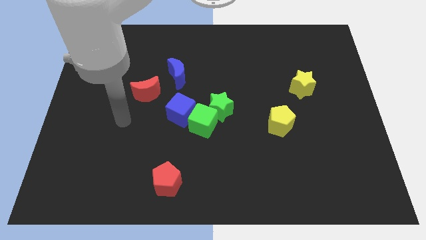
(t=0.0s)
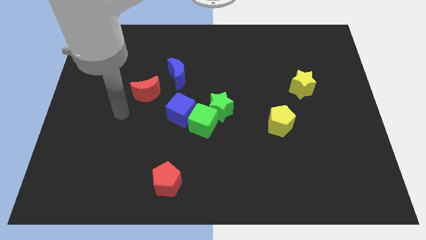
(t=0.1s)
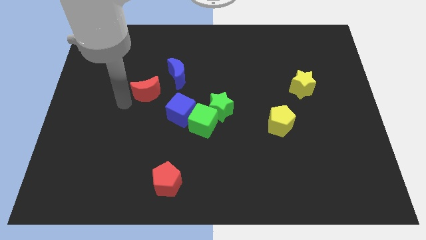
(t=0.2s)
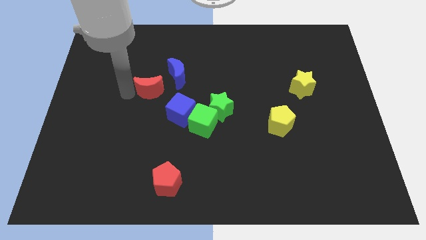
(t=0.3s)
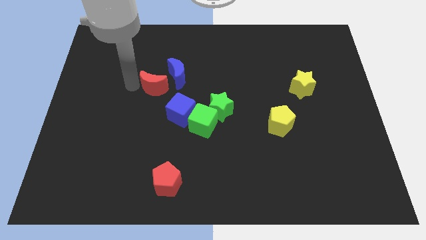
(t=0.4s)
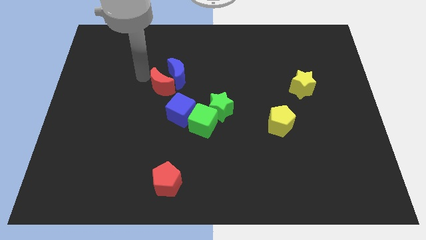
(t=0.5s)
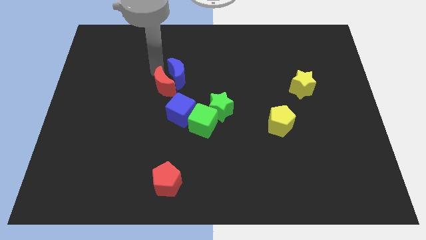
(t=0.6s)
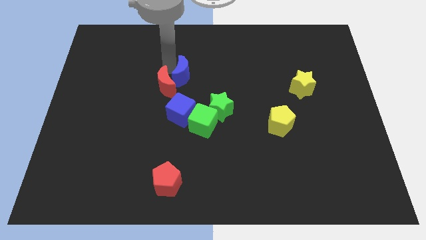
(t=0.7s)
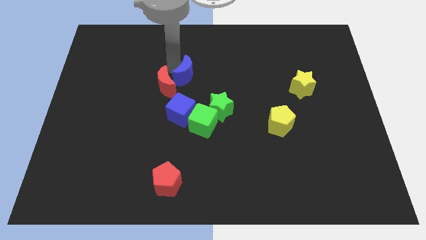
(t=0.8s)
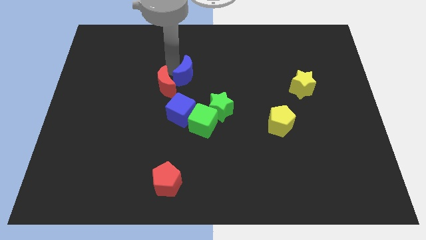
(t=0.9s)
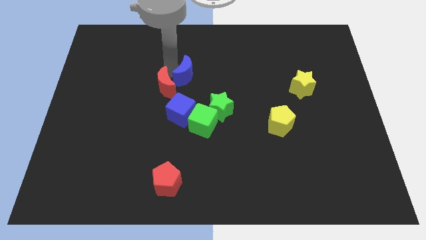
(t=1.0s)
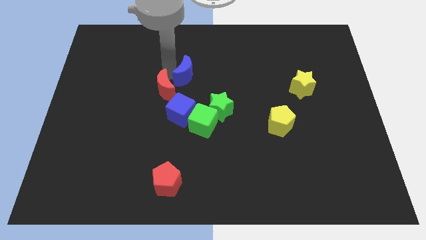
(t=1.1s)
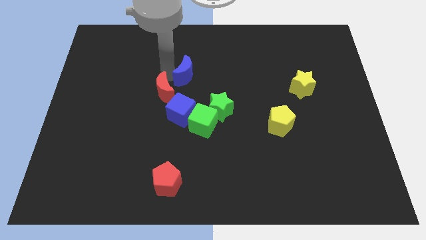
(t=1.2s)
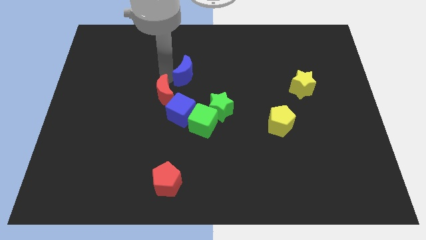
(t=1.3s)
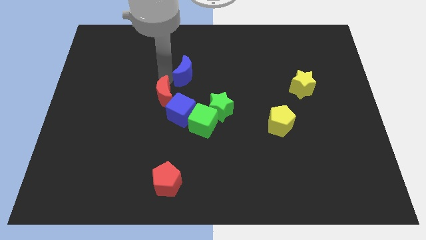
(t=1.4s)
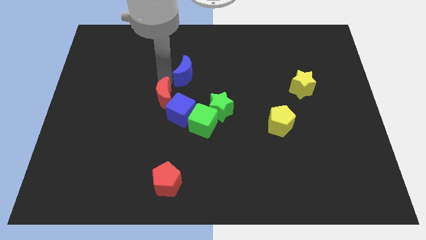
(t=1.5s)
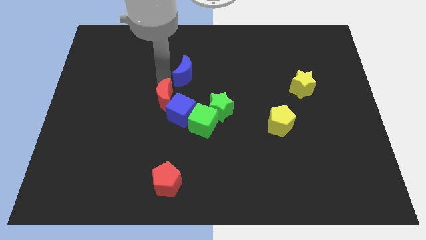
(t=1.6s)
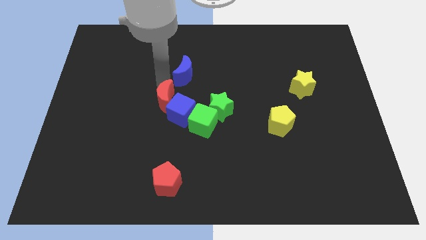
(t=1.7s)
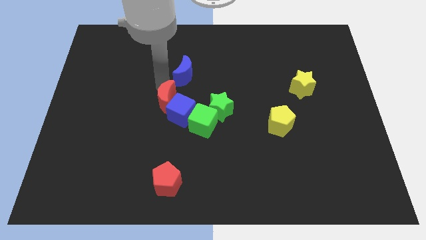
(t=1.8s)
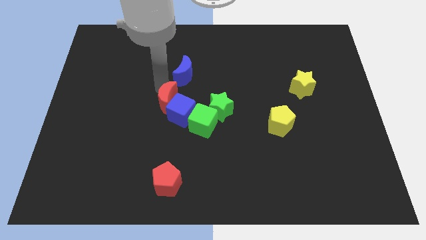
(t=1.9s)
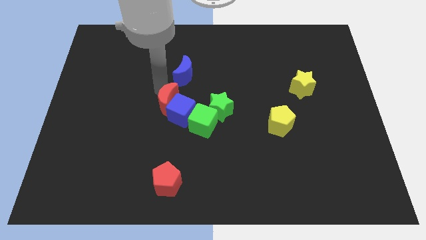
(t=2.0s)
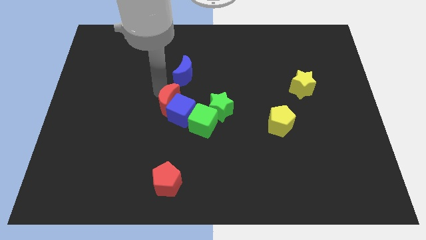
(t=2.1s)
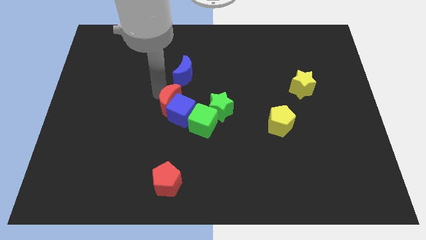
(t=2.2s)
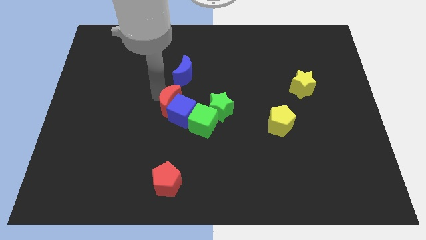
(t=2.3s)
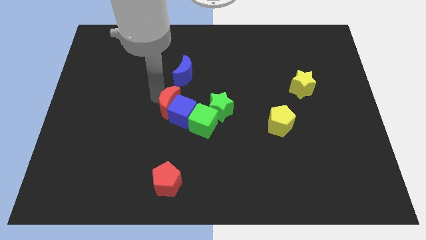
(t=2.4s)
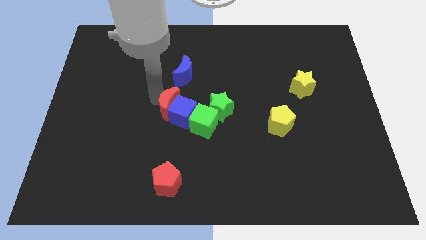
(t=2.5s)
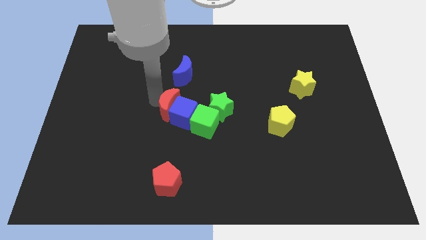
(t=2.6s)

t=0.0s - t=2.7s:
slightly move the red moon downwards and then to the right

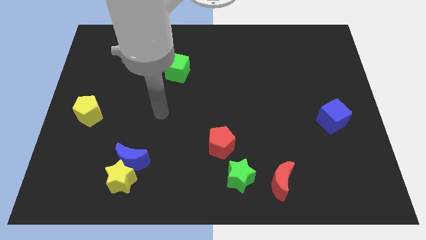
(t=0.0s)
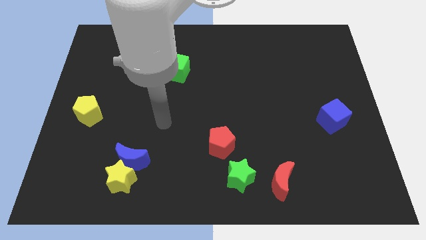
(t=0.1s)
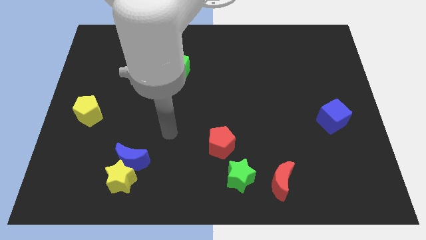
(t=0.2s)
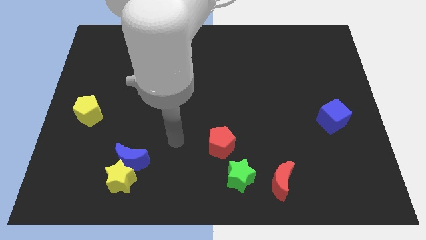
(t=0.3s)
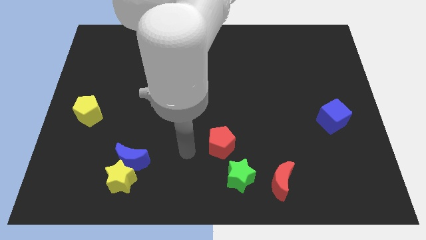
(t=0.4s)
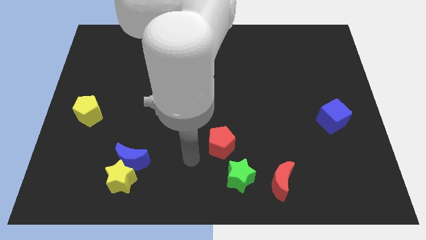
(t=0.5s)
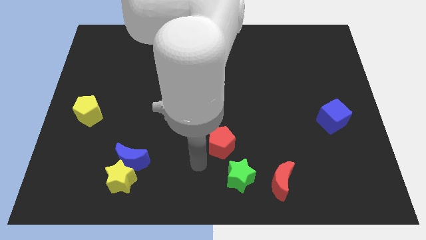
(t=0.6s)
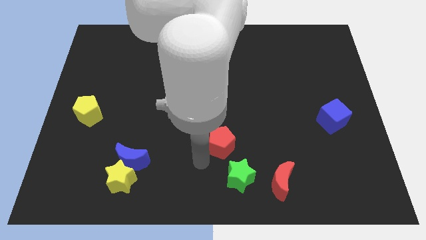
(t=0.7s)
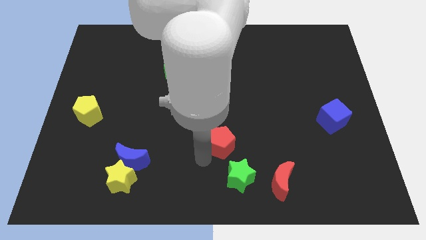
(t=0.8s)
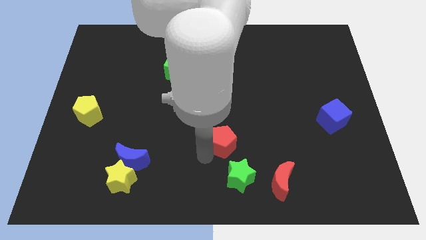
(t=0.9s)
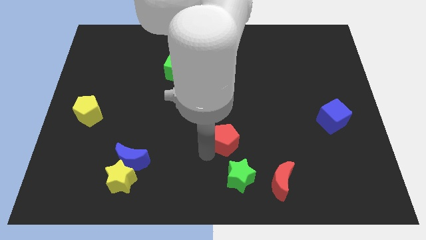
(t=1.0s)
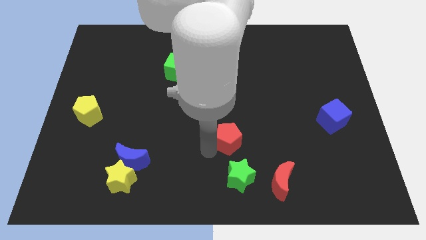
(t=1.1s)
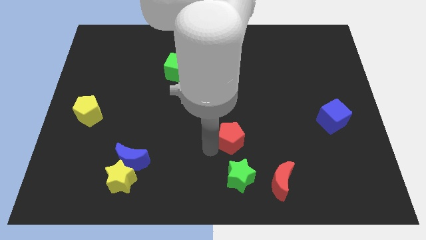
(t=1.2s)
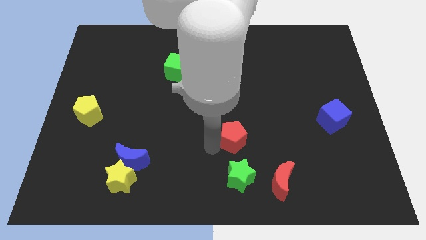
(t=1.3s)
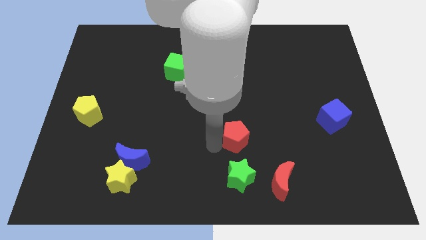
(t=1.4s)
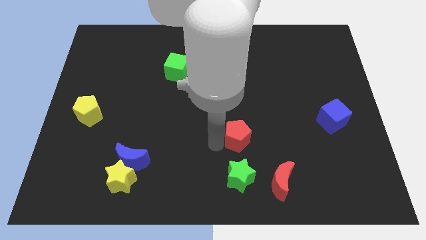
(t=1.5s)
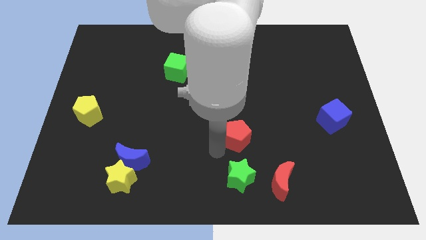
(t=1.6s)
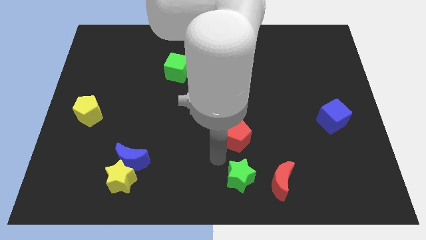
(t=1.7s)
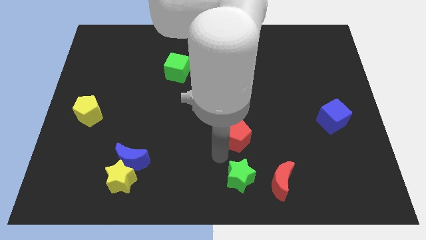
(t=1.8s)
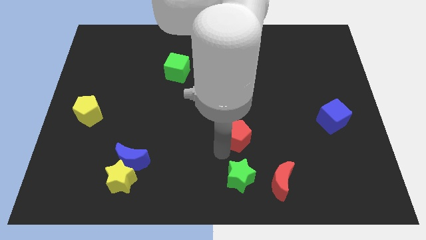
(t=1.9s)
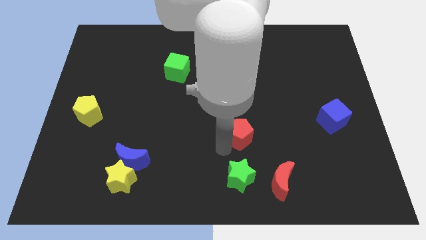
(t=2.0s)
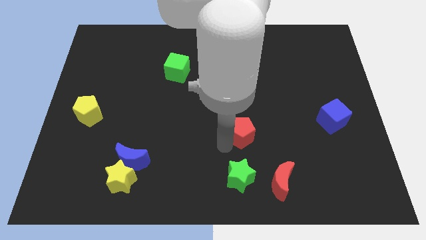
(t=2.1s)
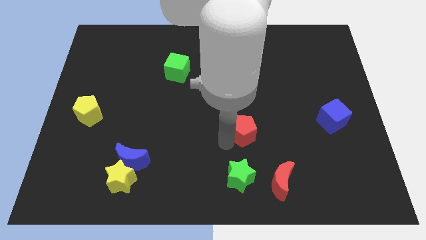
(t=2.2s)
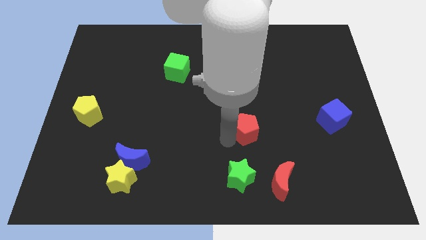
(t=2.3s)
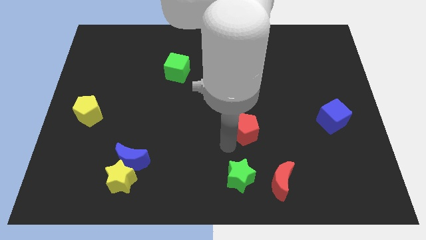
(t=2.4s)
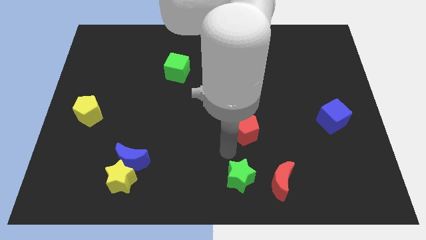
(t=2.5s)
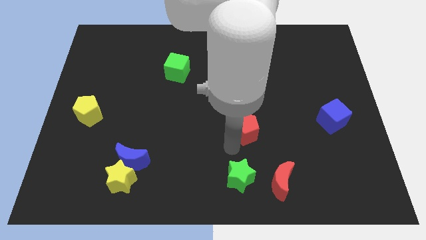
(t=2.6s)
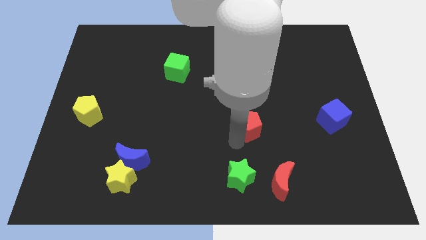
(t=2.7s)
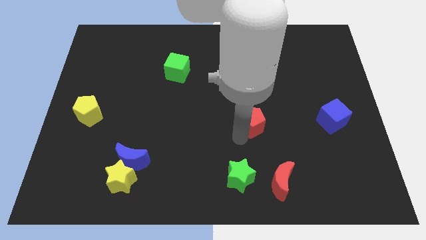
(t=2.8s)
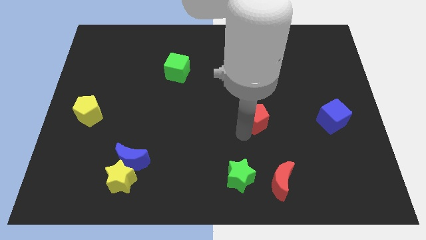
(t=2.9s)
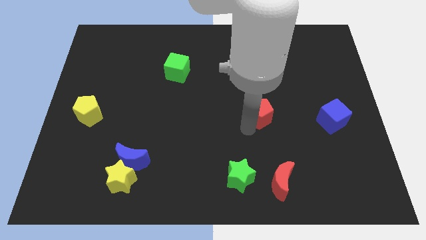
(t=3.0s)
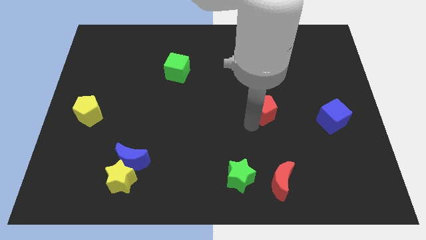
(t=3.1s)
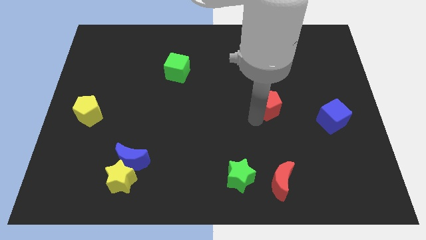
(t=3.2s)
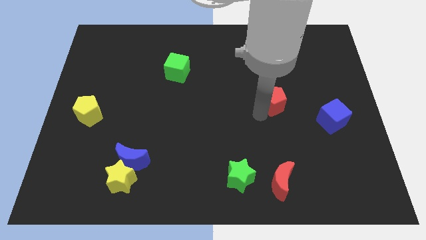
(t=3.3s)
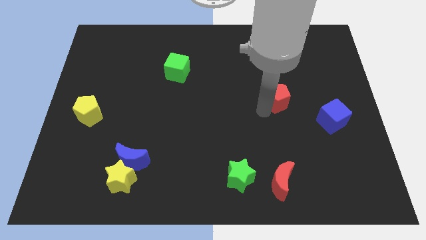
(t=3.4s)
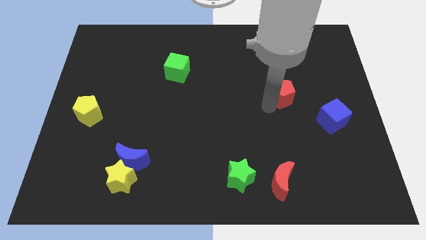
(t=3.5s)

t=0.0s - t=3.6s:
slide the red pentagon diagonally upwards and right

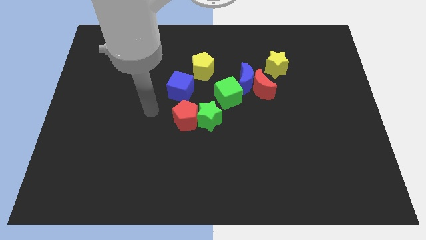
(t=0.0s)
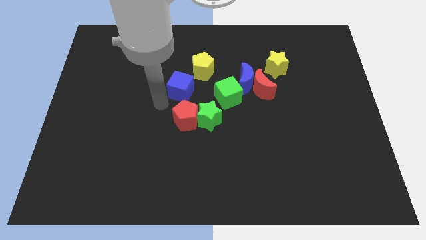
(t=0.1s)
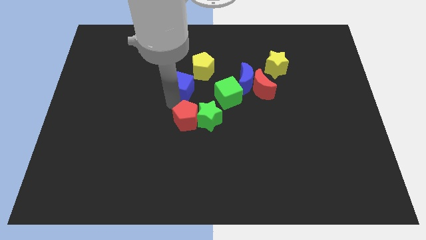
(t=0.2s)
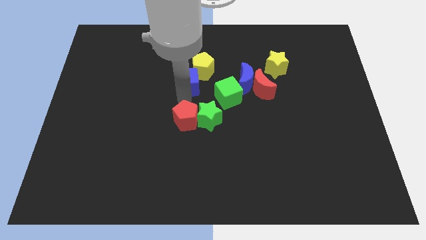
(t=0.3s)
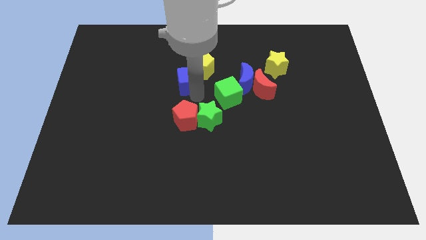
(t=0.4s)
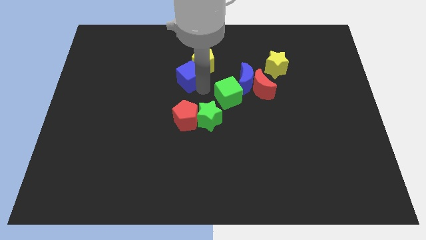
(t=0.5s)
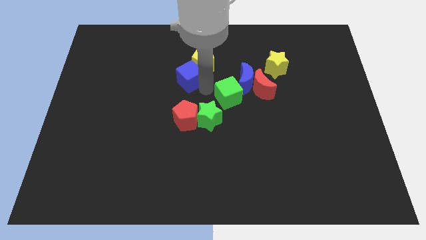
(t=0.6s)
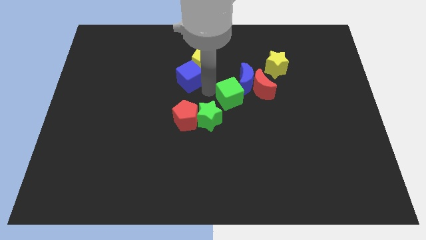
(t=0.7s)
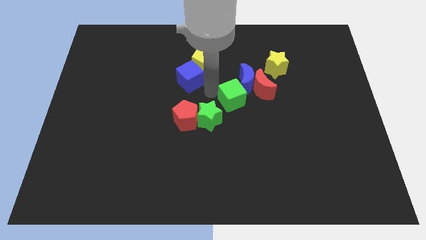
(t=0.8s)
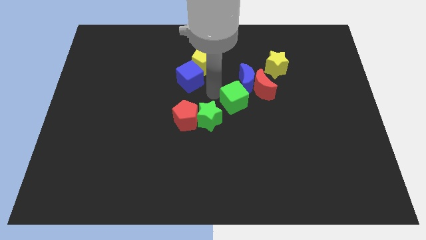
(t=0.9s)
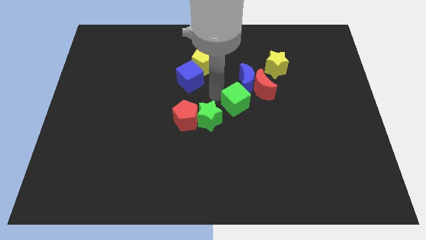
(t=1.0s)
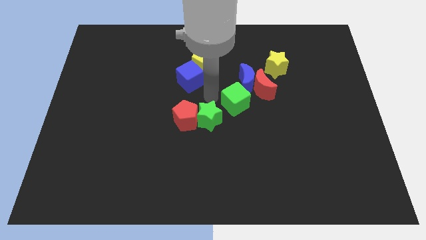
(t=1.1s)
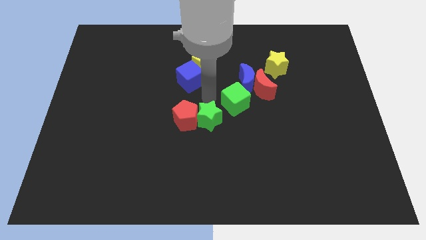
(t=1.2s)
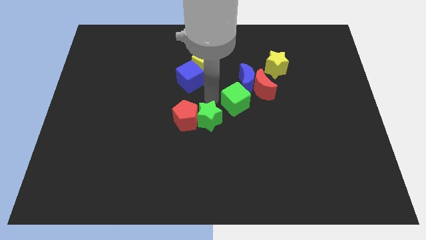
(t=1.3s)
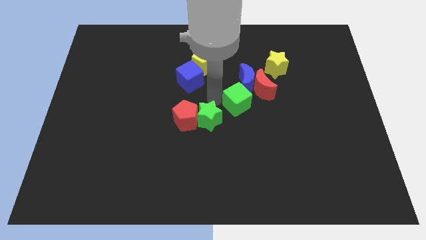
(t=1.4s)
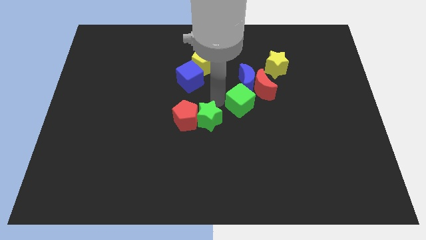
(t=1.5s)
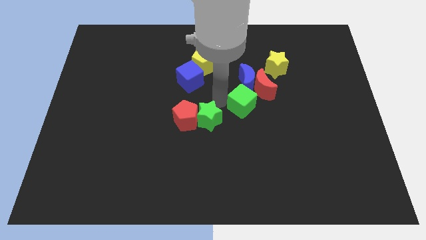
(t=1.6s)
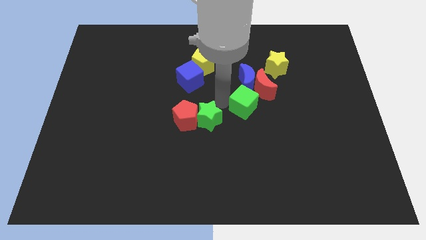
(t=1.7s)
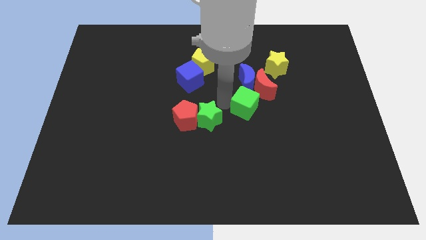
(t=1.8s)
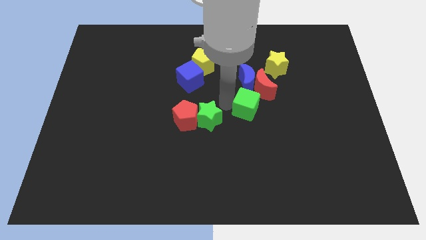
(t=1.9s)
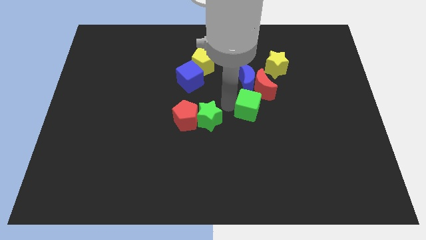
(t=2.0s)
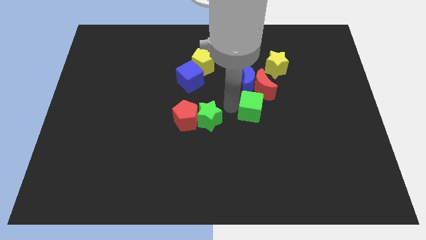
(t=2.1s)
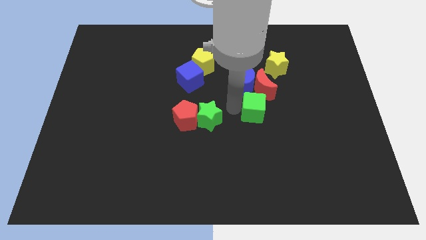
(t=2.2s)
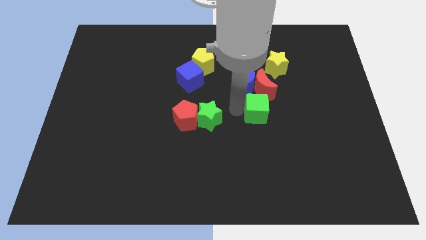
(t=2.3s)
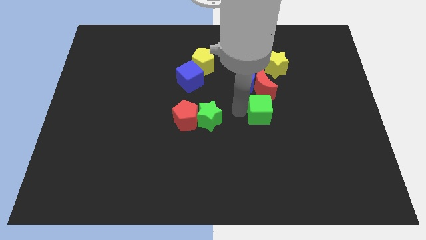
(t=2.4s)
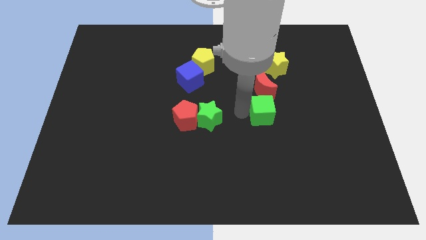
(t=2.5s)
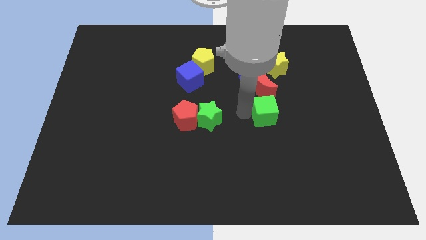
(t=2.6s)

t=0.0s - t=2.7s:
move the green cube slightly right
